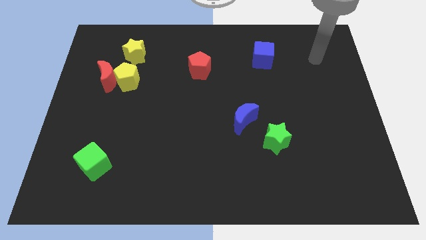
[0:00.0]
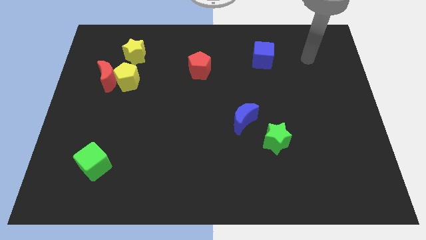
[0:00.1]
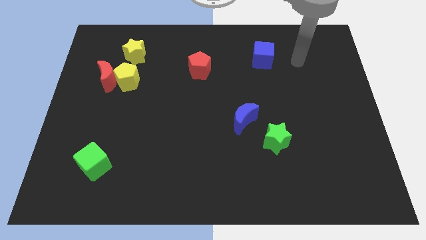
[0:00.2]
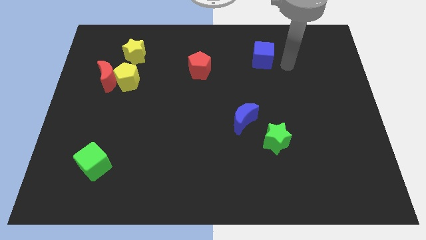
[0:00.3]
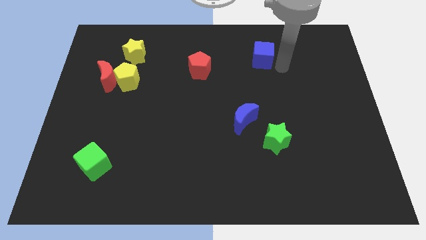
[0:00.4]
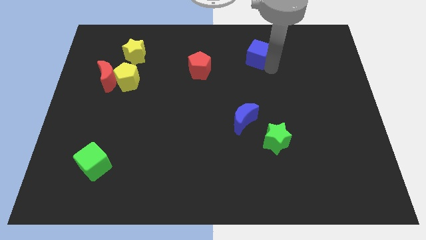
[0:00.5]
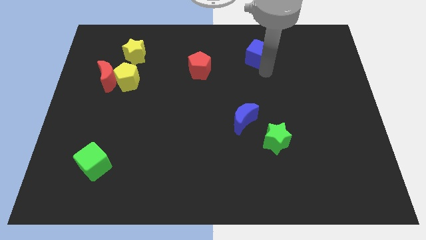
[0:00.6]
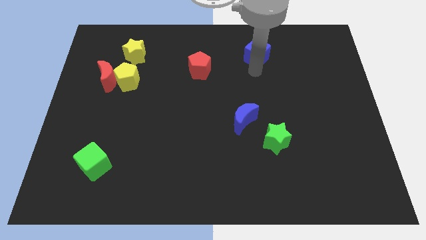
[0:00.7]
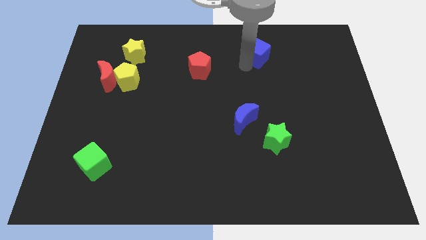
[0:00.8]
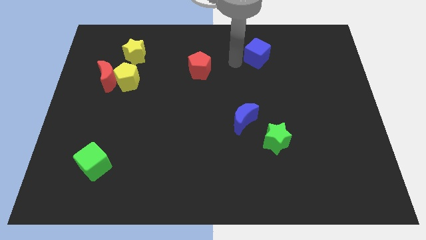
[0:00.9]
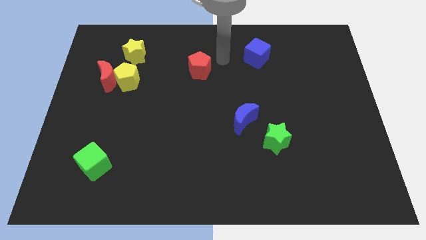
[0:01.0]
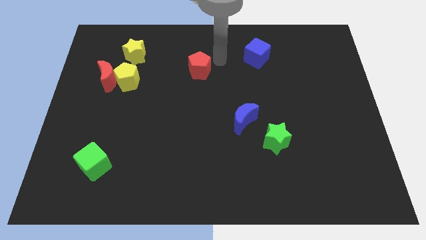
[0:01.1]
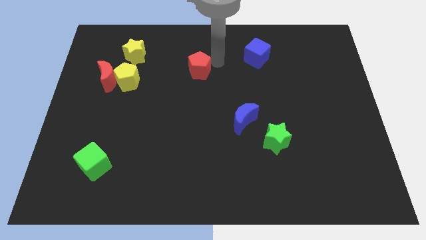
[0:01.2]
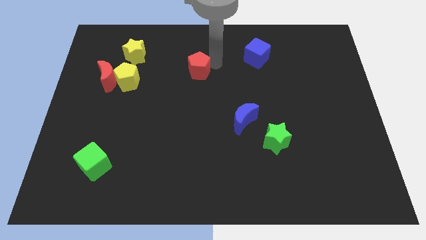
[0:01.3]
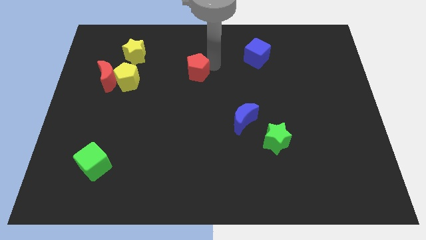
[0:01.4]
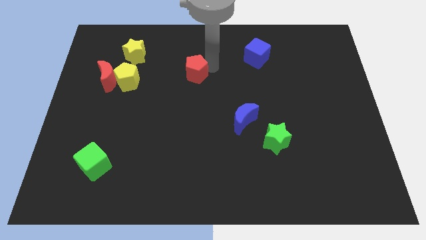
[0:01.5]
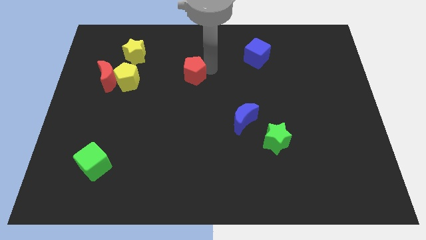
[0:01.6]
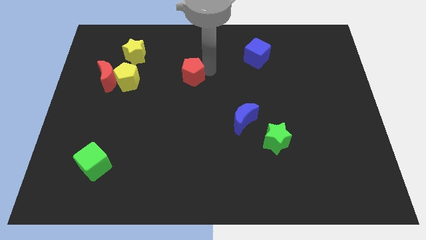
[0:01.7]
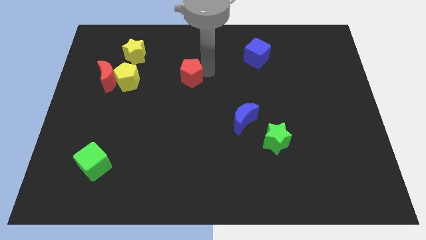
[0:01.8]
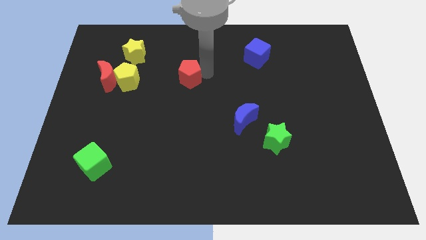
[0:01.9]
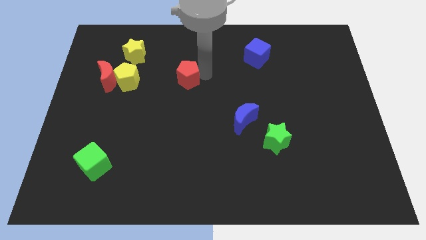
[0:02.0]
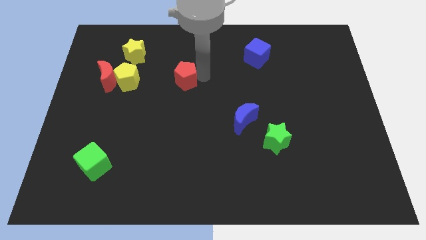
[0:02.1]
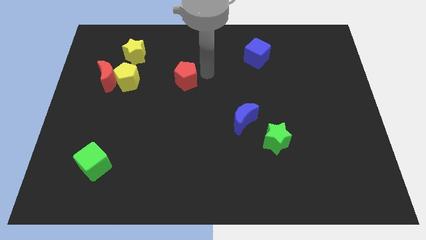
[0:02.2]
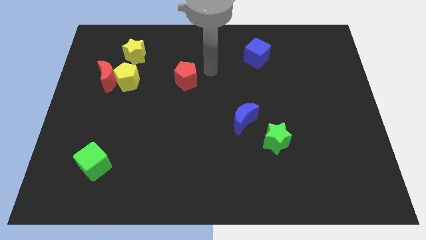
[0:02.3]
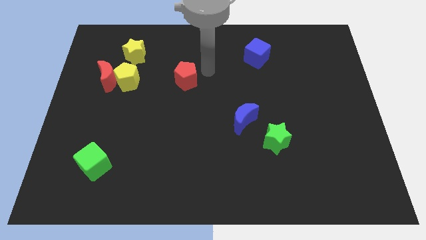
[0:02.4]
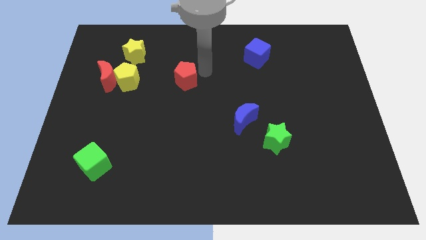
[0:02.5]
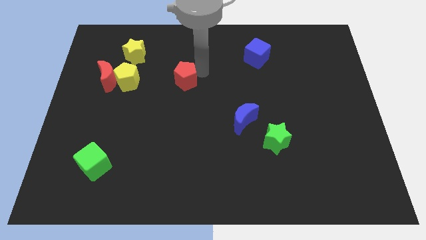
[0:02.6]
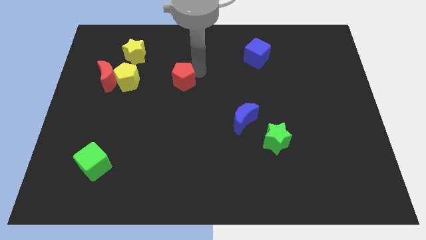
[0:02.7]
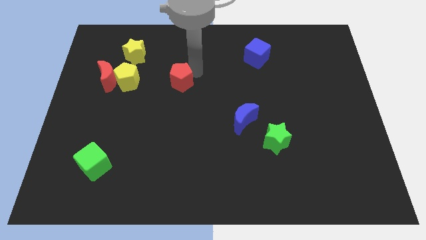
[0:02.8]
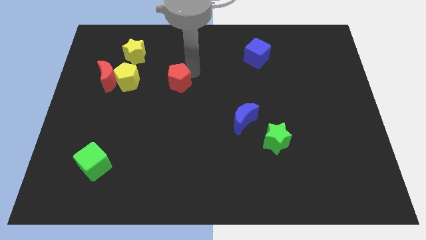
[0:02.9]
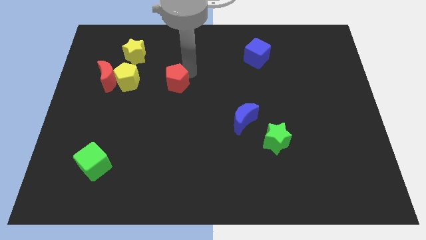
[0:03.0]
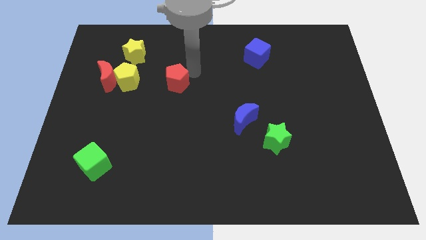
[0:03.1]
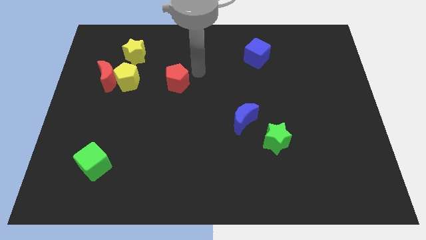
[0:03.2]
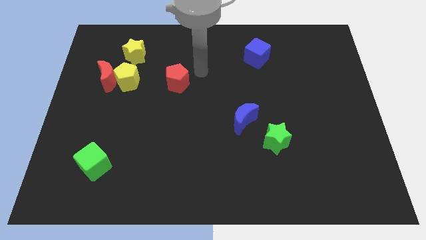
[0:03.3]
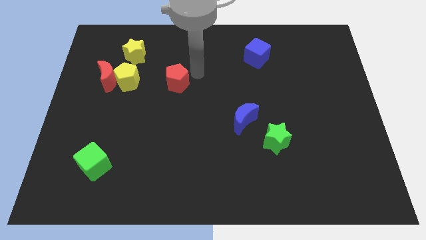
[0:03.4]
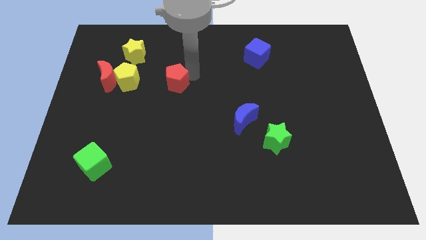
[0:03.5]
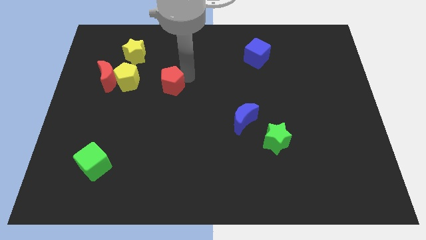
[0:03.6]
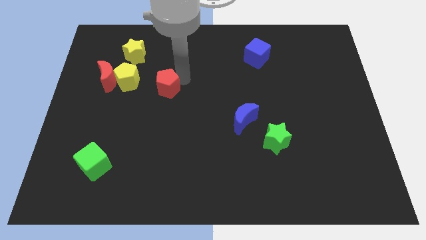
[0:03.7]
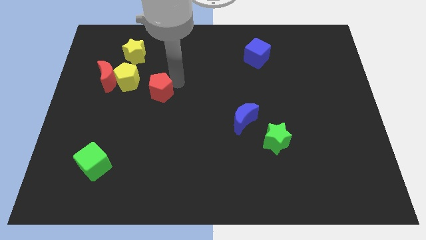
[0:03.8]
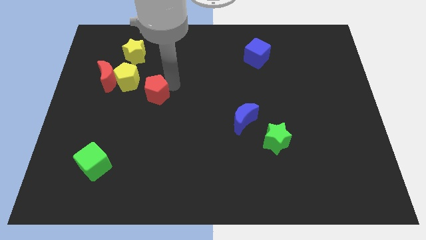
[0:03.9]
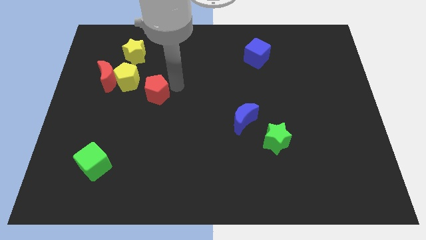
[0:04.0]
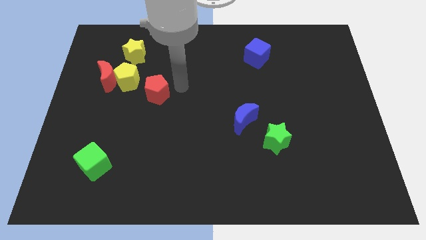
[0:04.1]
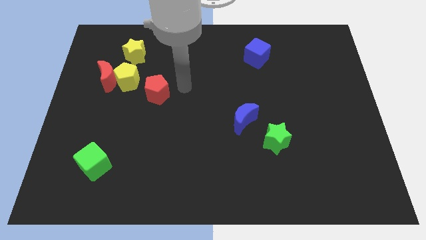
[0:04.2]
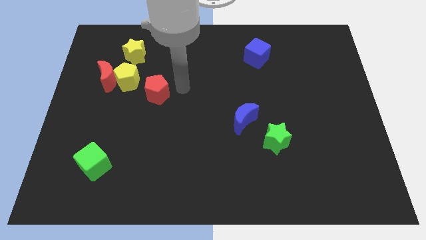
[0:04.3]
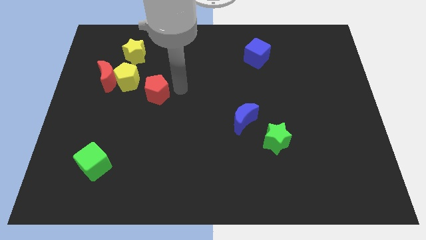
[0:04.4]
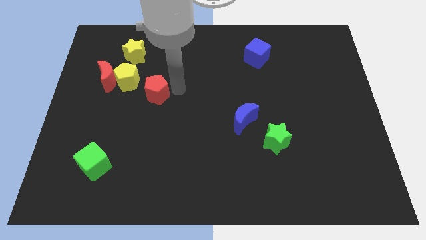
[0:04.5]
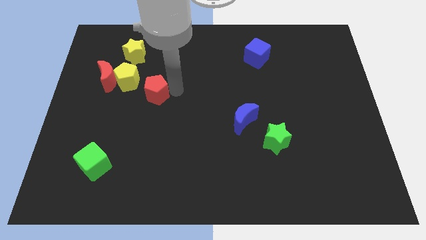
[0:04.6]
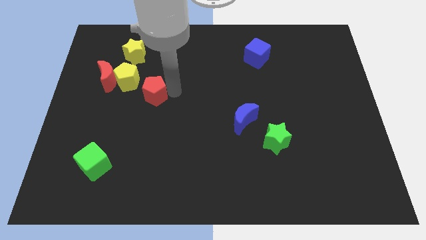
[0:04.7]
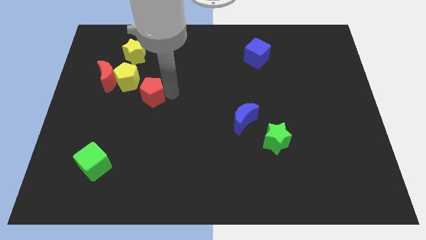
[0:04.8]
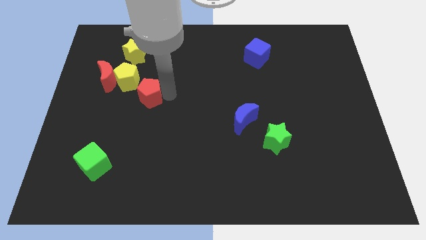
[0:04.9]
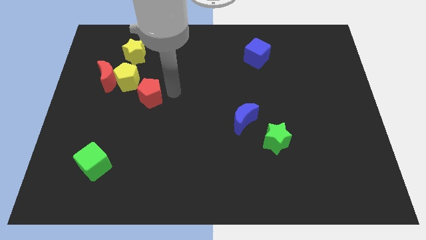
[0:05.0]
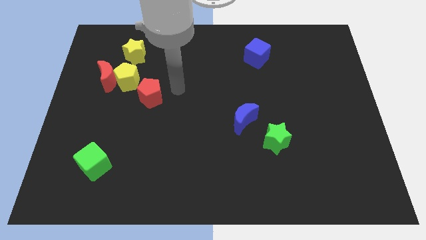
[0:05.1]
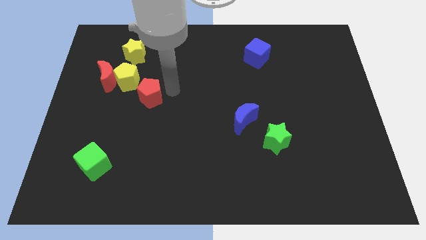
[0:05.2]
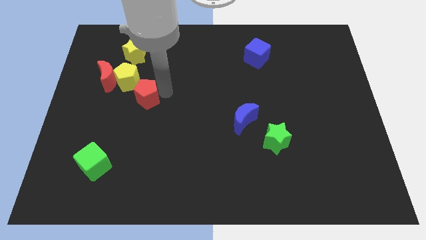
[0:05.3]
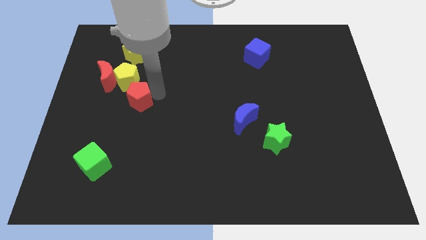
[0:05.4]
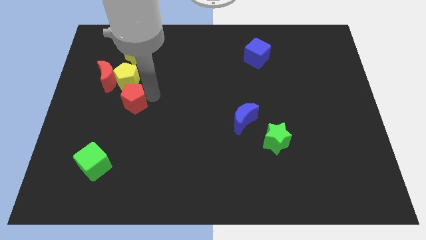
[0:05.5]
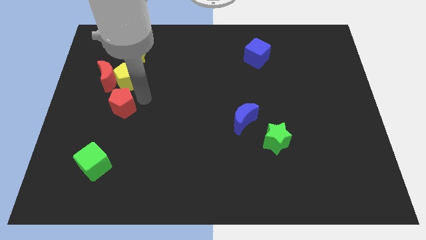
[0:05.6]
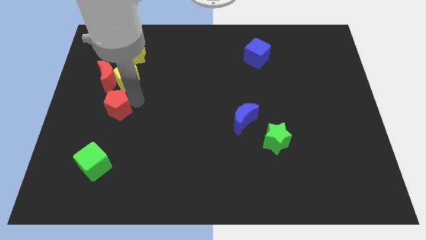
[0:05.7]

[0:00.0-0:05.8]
push the red pentagon below the red moon

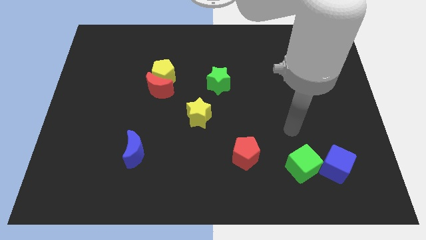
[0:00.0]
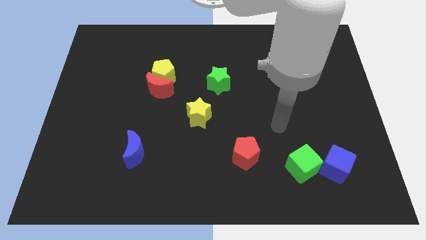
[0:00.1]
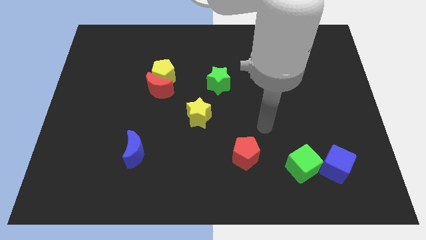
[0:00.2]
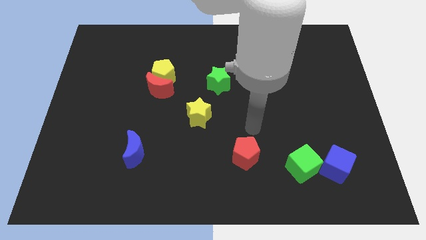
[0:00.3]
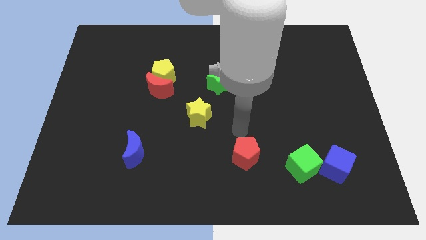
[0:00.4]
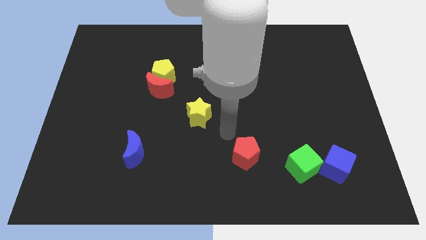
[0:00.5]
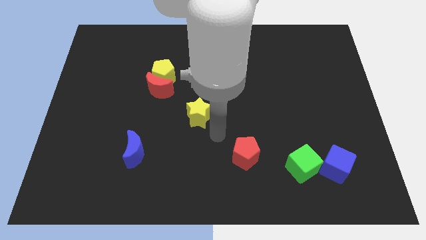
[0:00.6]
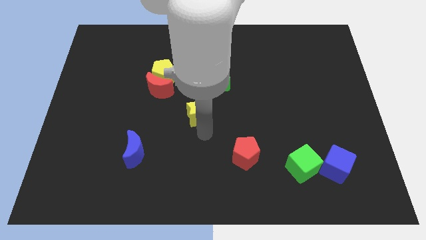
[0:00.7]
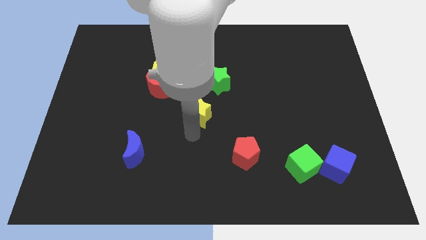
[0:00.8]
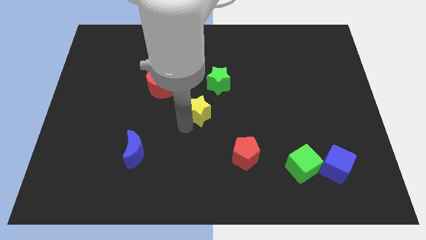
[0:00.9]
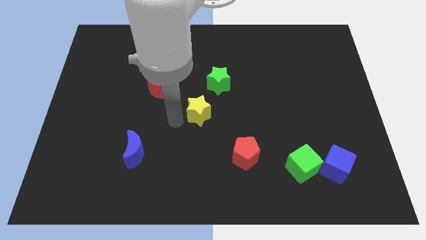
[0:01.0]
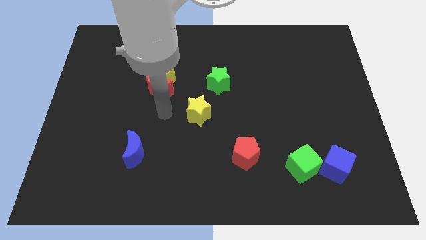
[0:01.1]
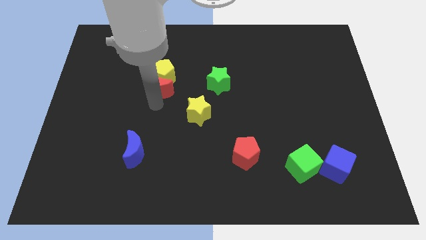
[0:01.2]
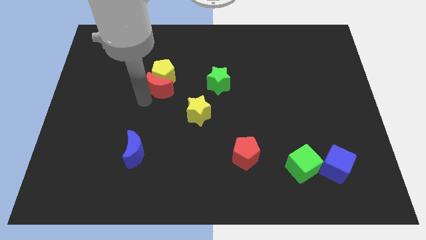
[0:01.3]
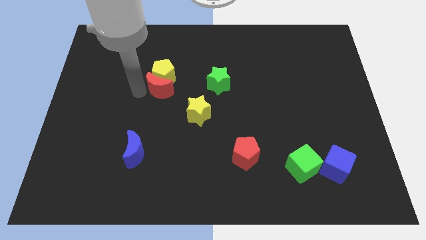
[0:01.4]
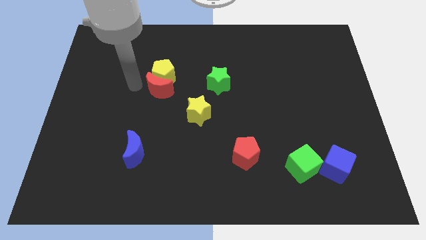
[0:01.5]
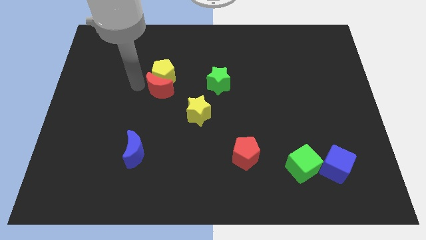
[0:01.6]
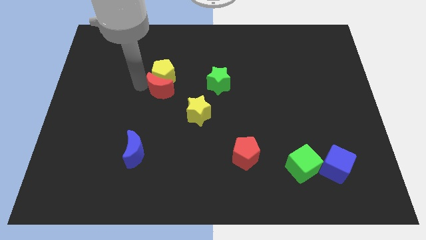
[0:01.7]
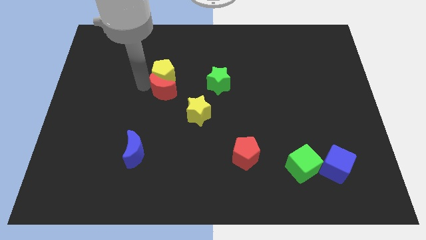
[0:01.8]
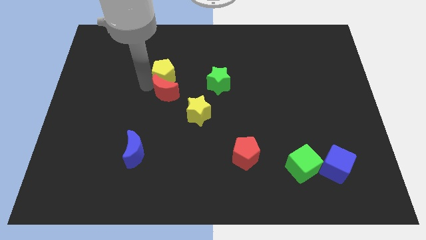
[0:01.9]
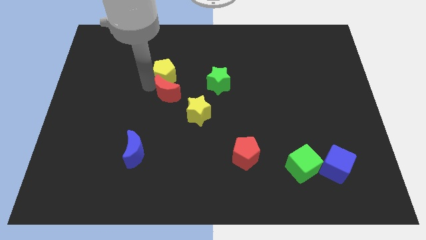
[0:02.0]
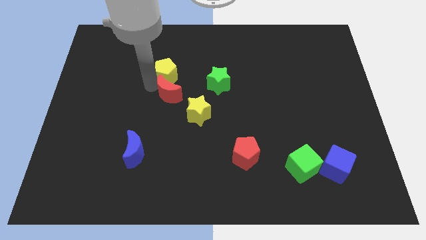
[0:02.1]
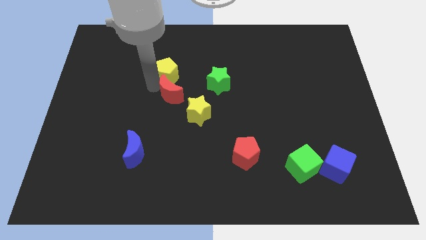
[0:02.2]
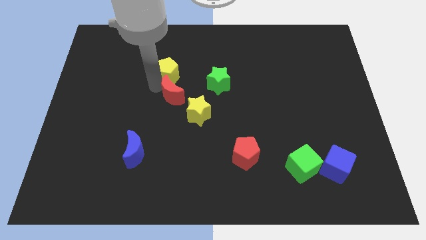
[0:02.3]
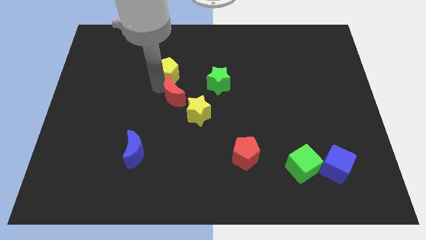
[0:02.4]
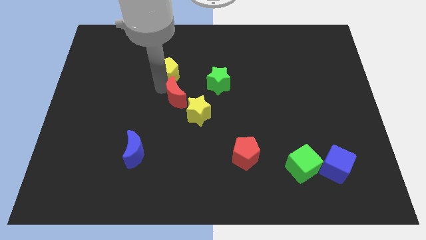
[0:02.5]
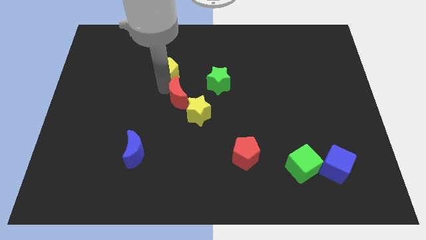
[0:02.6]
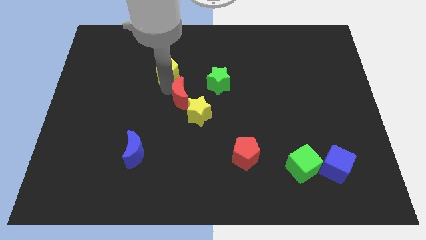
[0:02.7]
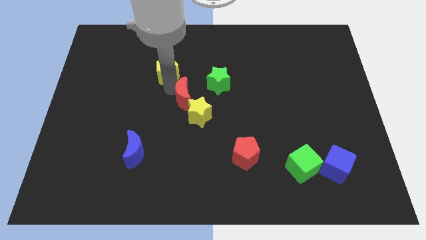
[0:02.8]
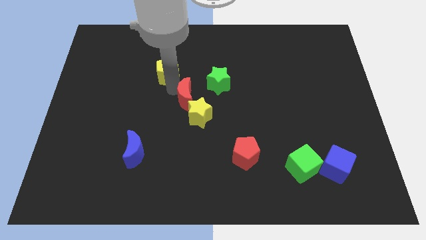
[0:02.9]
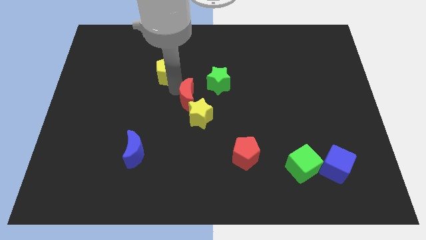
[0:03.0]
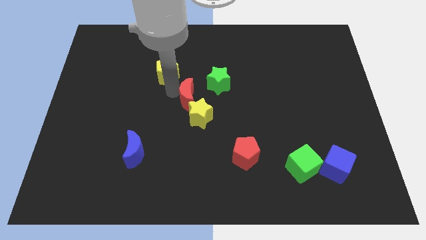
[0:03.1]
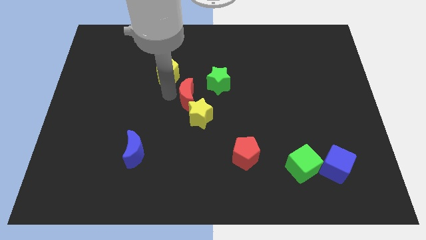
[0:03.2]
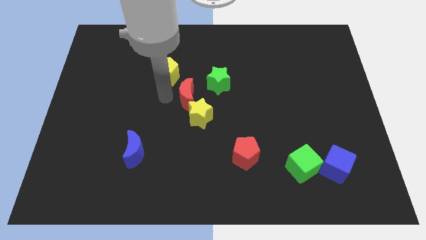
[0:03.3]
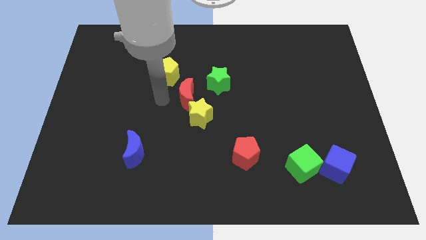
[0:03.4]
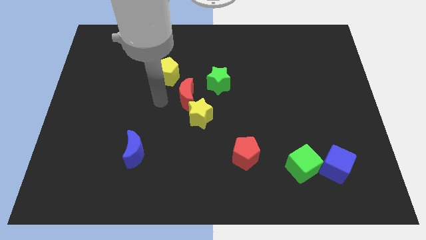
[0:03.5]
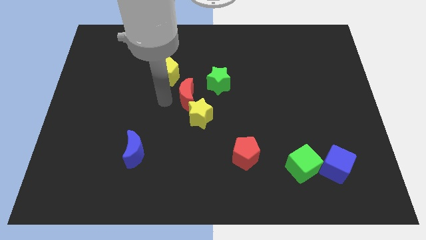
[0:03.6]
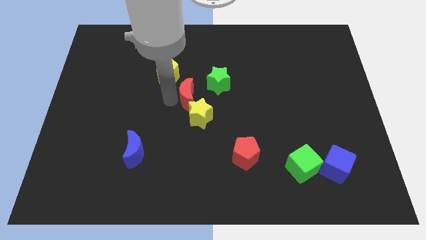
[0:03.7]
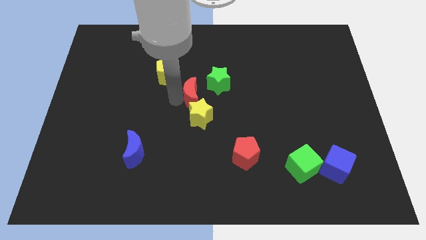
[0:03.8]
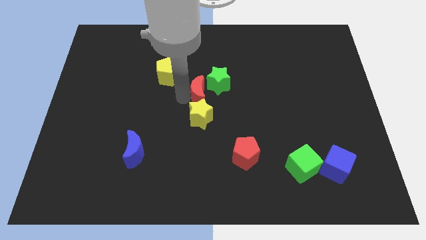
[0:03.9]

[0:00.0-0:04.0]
push the red moon diagonally up and to the right of the yellow star
